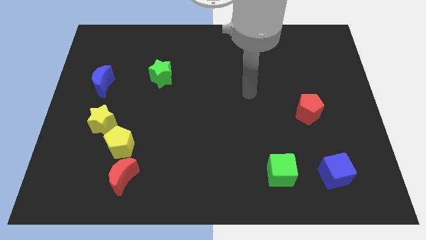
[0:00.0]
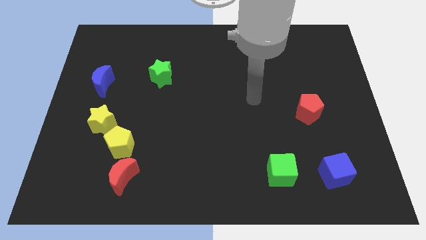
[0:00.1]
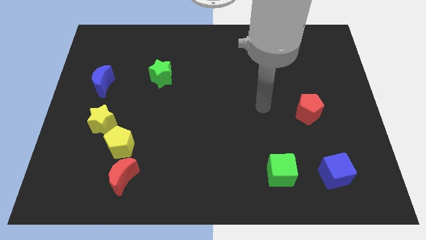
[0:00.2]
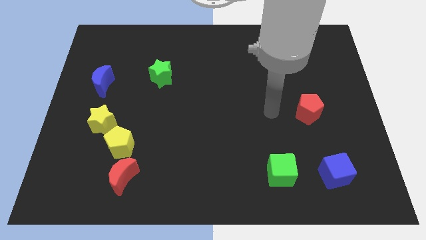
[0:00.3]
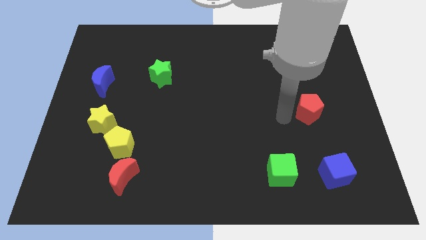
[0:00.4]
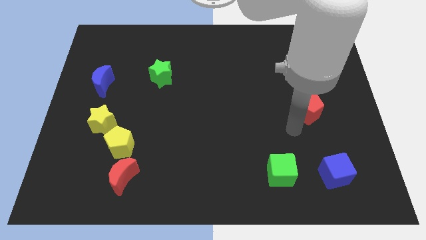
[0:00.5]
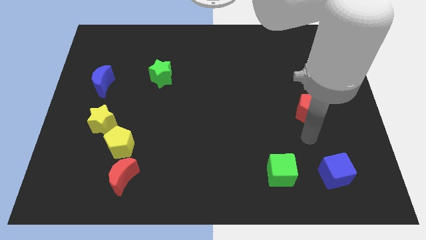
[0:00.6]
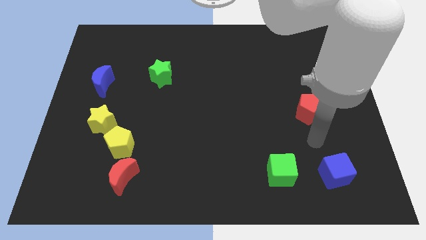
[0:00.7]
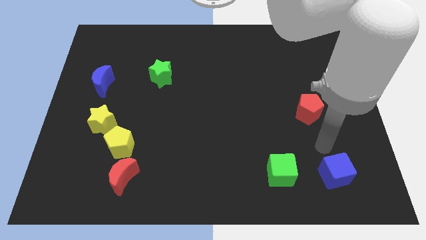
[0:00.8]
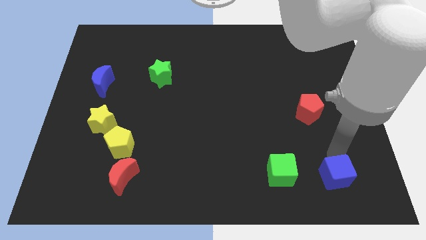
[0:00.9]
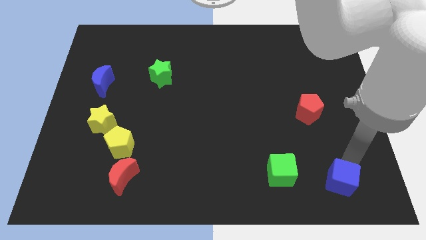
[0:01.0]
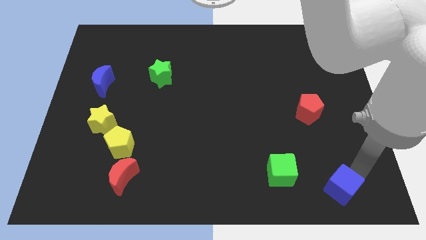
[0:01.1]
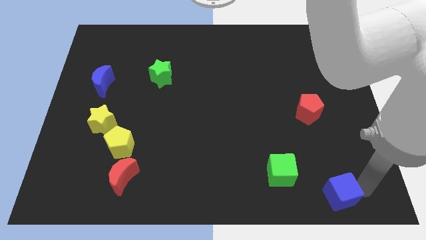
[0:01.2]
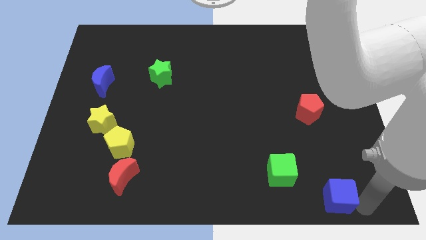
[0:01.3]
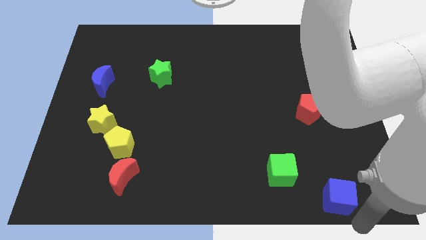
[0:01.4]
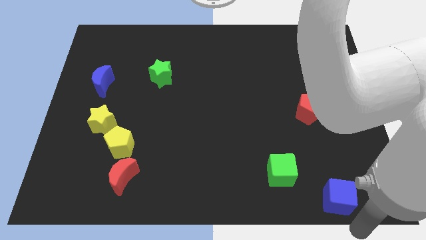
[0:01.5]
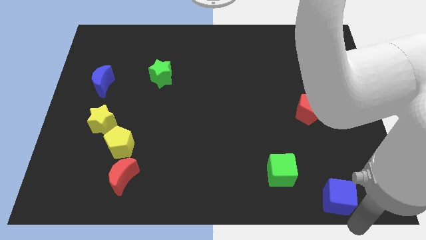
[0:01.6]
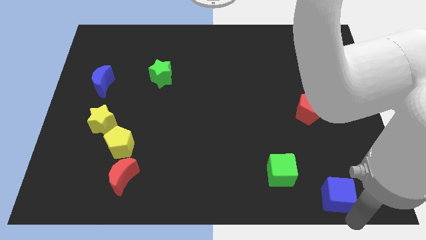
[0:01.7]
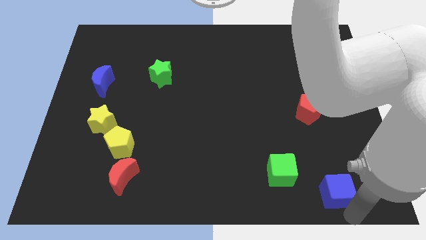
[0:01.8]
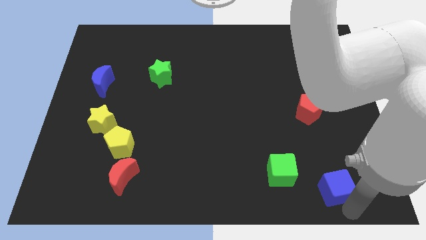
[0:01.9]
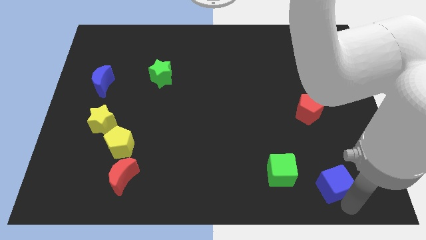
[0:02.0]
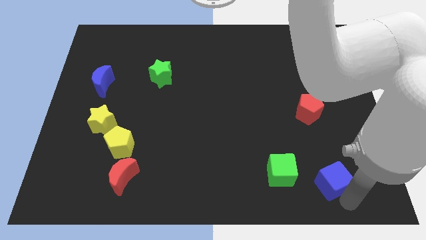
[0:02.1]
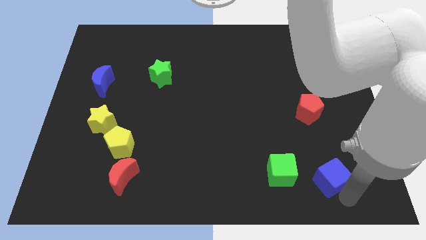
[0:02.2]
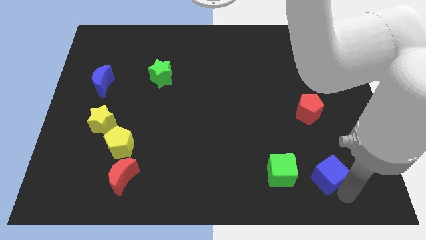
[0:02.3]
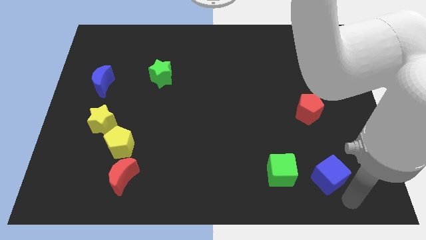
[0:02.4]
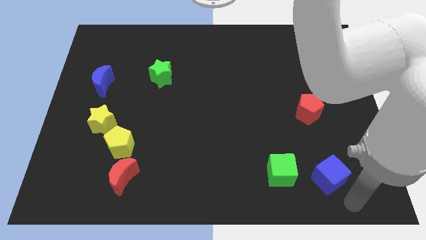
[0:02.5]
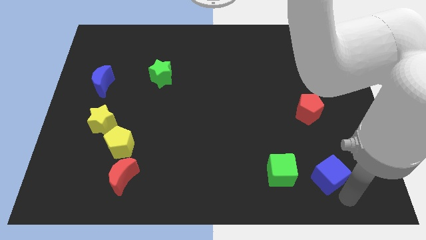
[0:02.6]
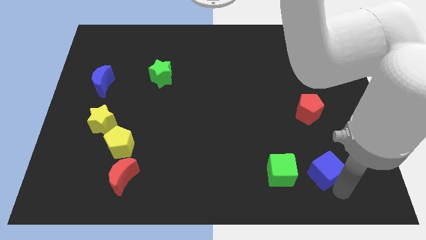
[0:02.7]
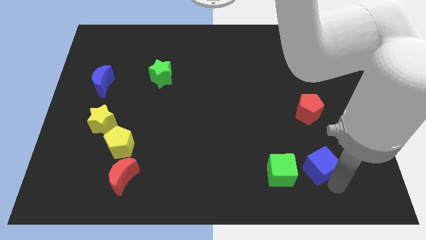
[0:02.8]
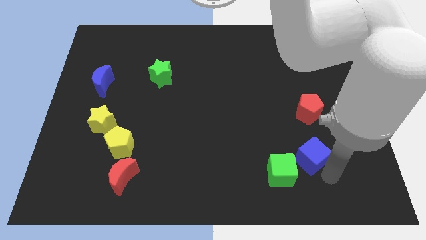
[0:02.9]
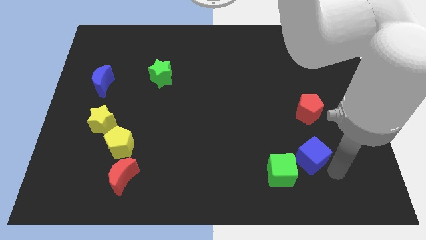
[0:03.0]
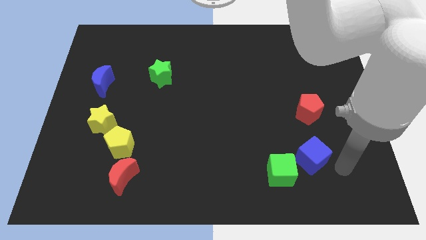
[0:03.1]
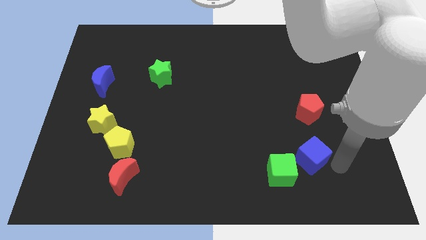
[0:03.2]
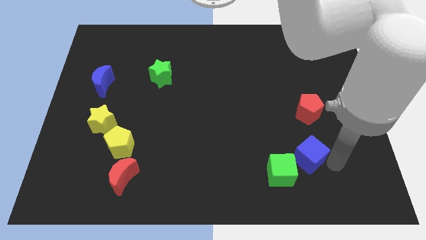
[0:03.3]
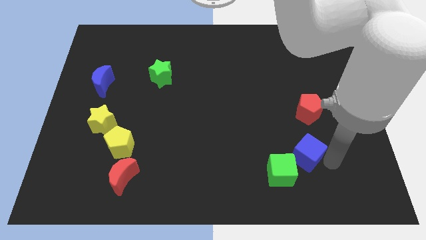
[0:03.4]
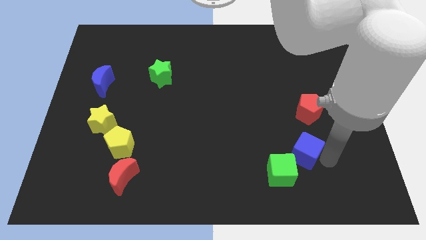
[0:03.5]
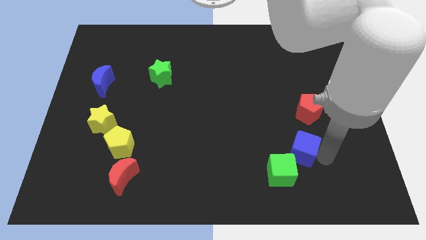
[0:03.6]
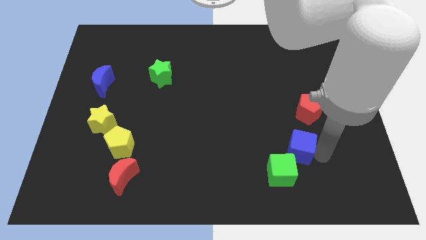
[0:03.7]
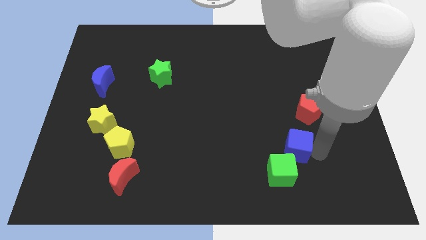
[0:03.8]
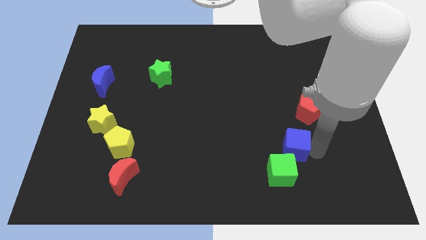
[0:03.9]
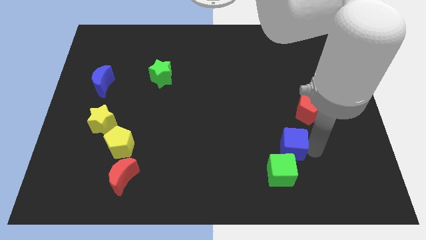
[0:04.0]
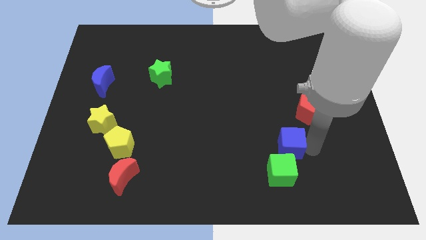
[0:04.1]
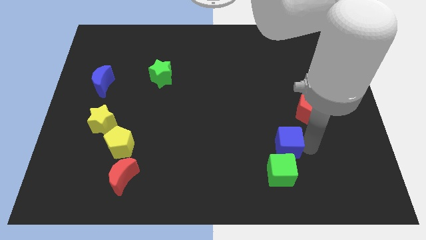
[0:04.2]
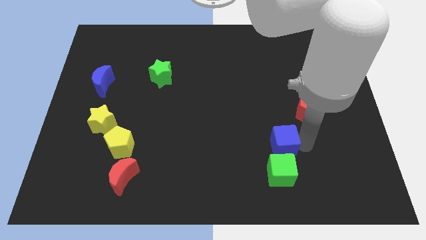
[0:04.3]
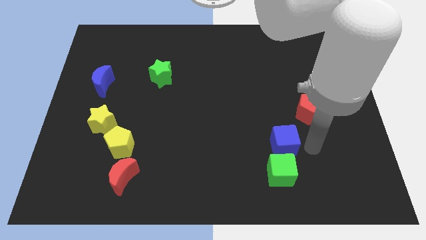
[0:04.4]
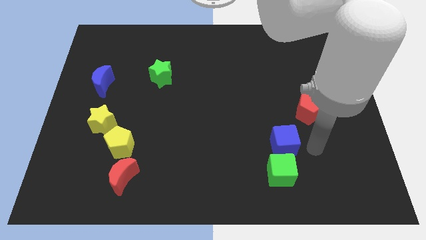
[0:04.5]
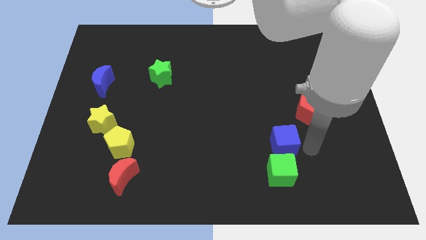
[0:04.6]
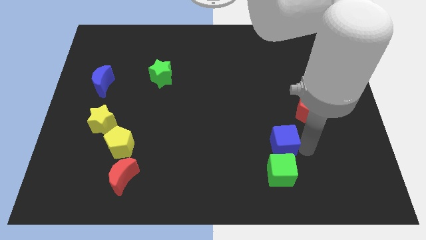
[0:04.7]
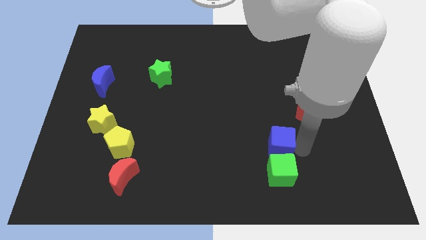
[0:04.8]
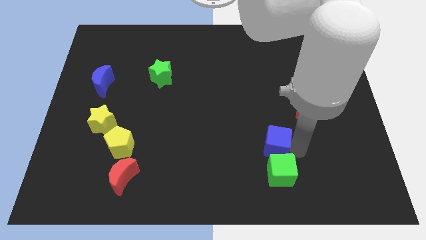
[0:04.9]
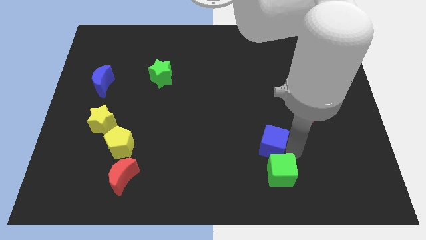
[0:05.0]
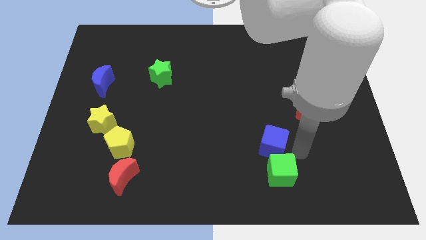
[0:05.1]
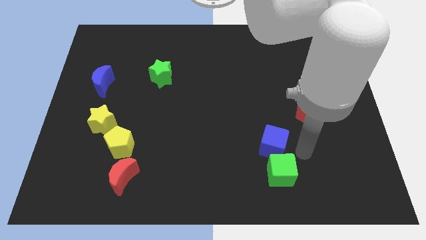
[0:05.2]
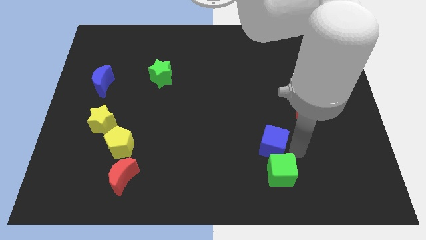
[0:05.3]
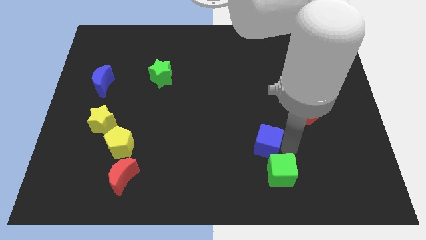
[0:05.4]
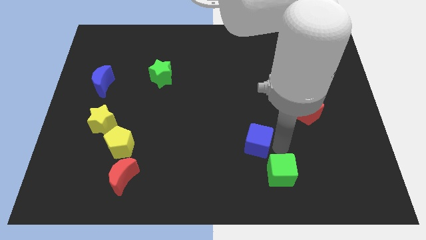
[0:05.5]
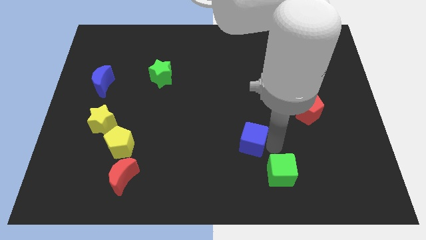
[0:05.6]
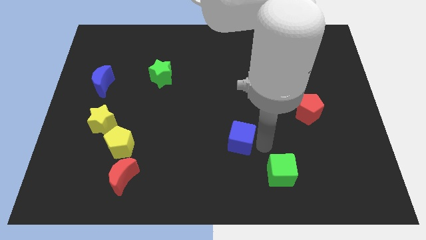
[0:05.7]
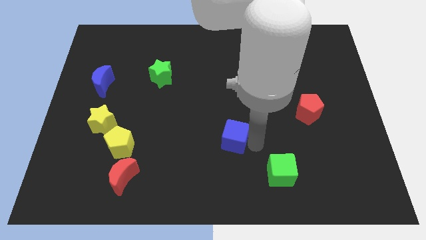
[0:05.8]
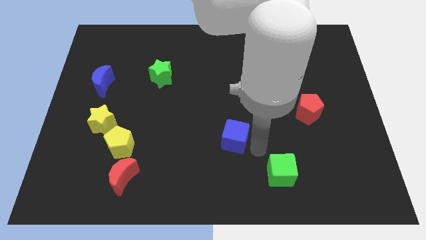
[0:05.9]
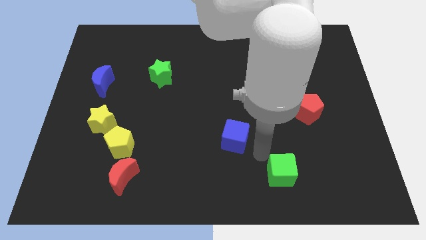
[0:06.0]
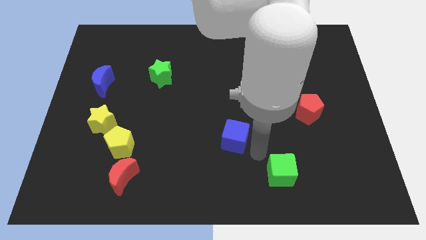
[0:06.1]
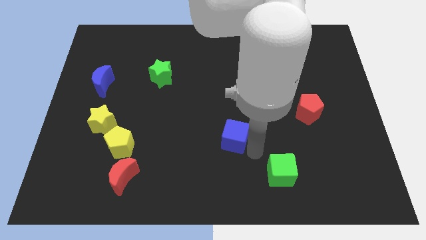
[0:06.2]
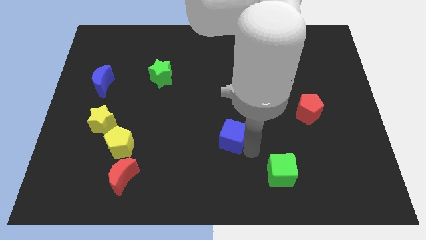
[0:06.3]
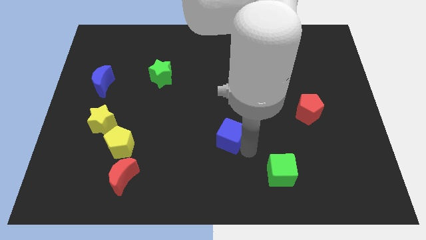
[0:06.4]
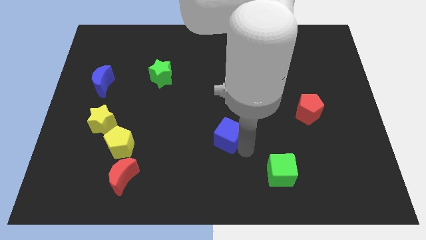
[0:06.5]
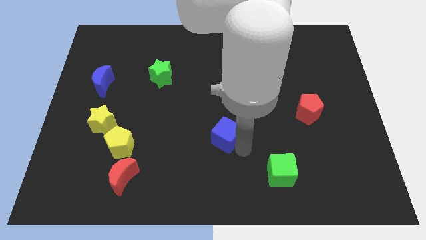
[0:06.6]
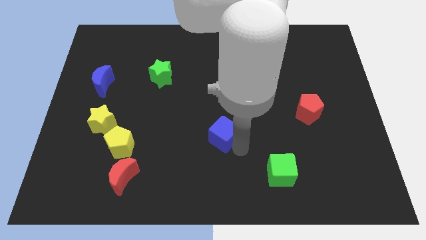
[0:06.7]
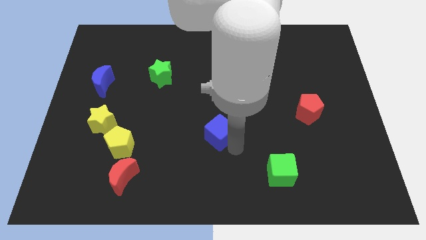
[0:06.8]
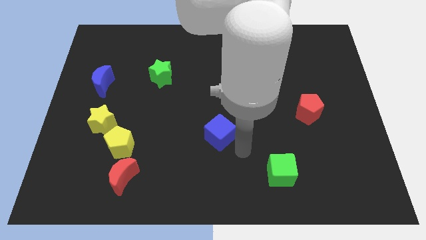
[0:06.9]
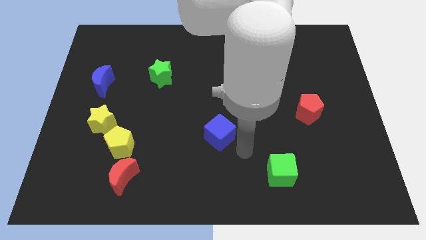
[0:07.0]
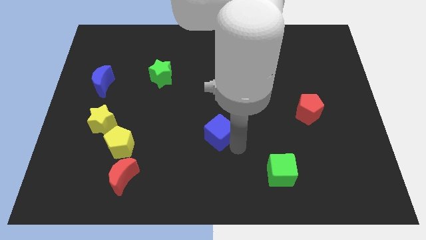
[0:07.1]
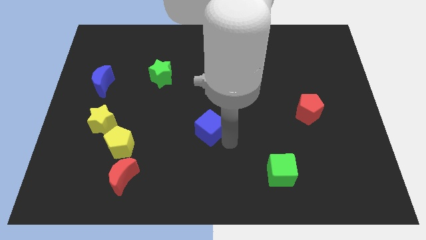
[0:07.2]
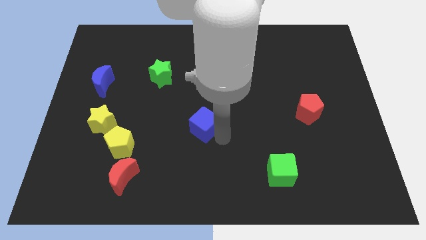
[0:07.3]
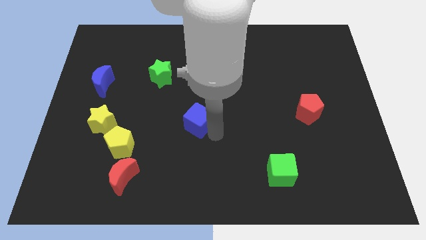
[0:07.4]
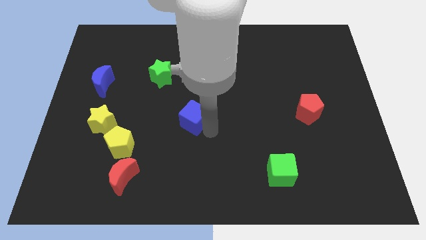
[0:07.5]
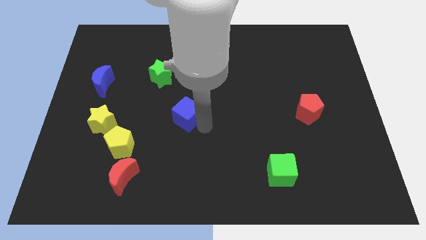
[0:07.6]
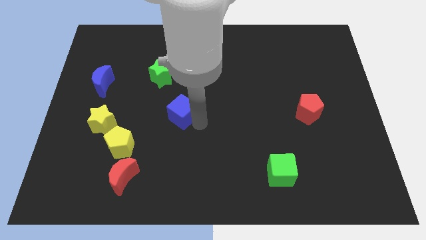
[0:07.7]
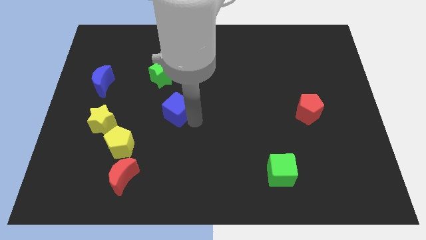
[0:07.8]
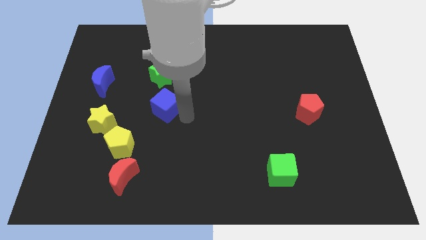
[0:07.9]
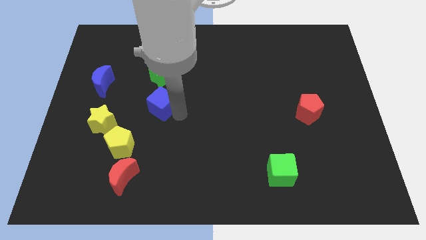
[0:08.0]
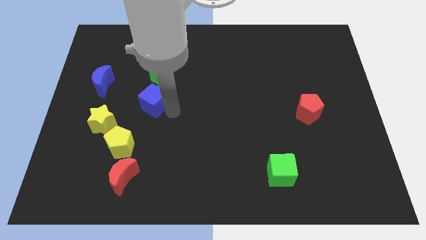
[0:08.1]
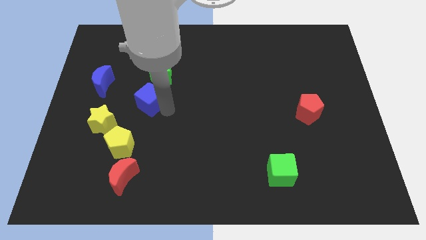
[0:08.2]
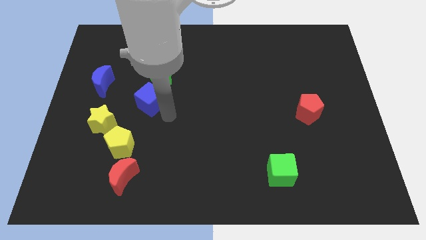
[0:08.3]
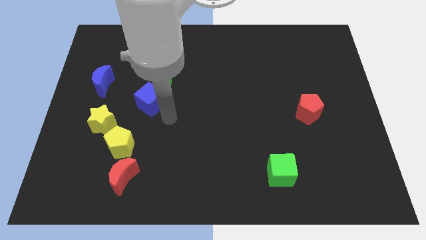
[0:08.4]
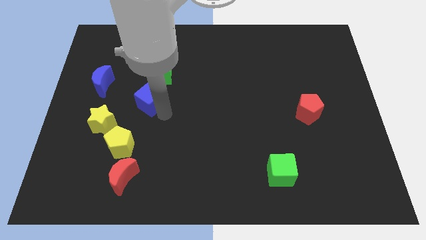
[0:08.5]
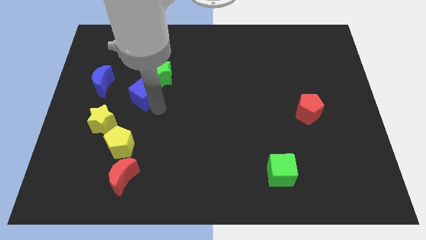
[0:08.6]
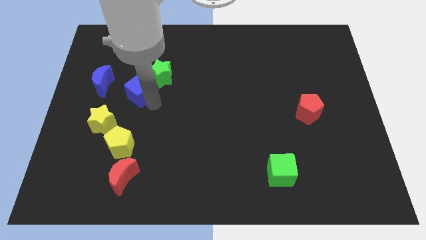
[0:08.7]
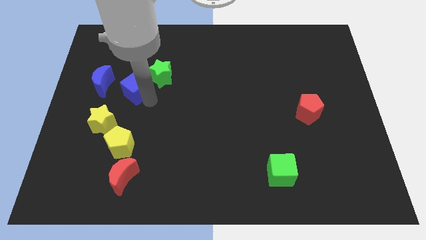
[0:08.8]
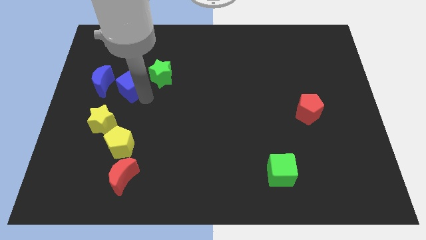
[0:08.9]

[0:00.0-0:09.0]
move the blue cube to the top of the yellow star
